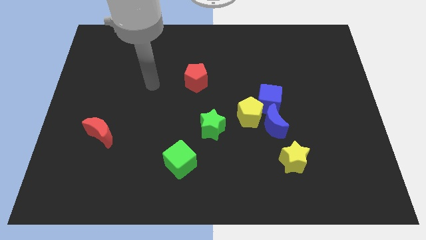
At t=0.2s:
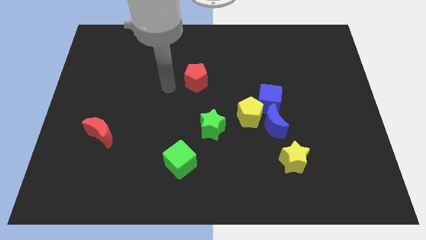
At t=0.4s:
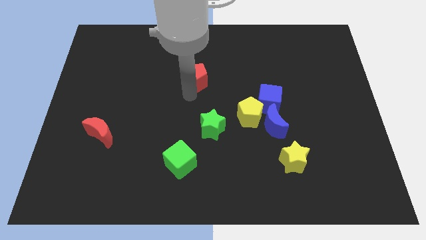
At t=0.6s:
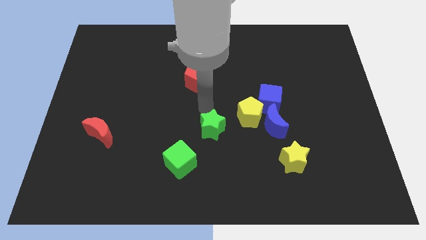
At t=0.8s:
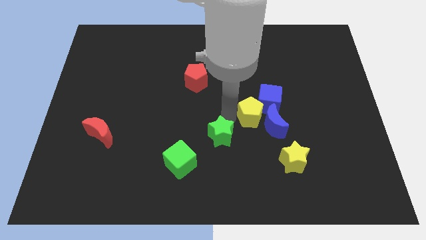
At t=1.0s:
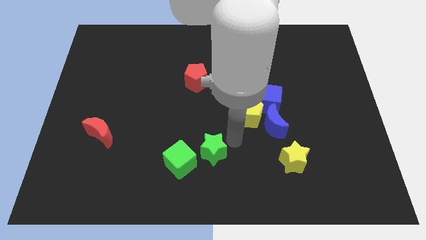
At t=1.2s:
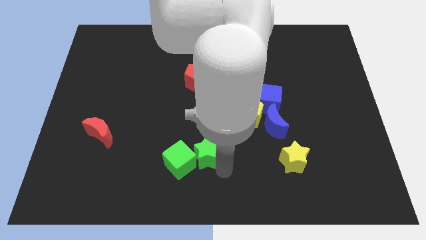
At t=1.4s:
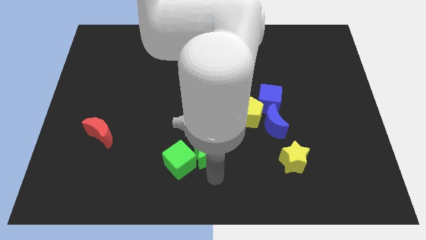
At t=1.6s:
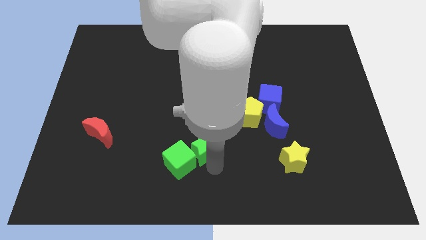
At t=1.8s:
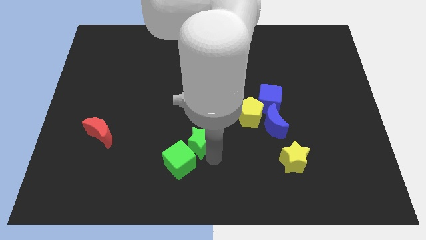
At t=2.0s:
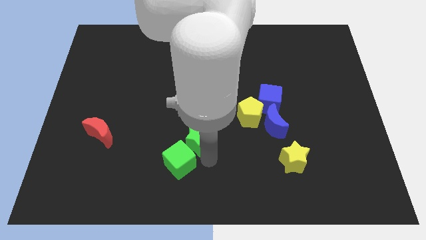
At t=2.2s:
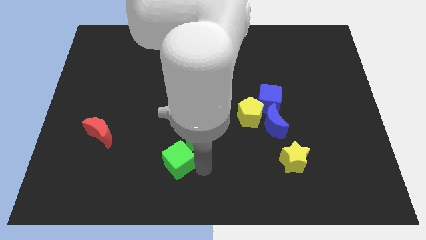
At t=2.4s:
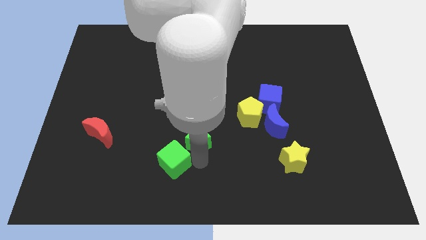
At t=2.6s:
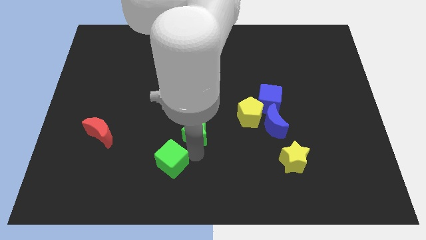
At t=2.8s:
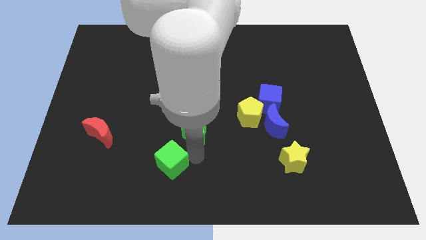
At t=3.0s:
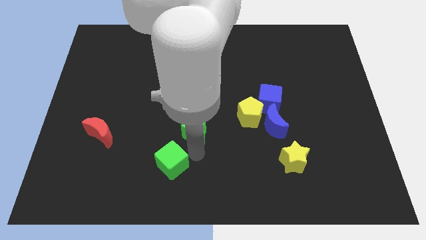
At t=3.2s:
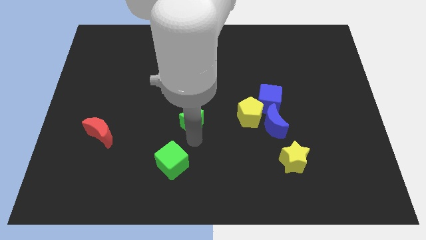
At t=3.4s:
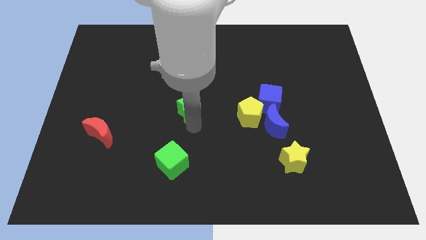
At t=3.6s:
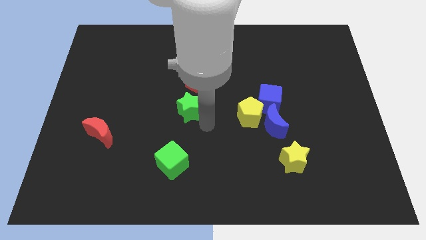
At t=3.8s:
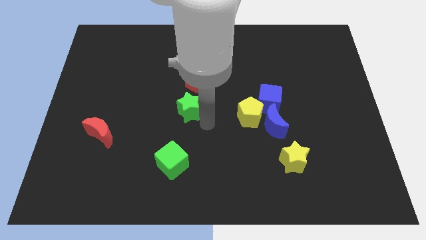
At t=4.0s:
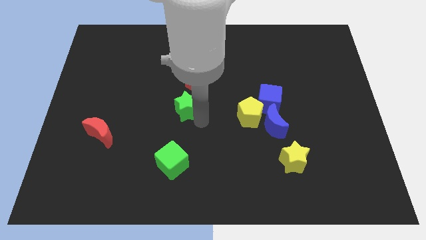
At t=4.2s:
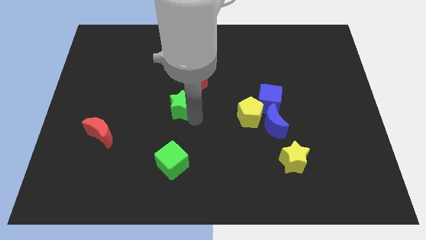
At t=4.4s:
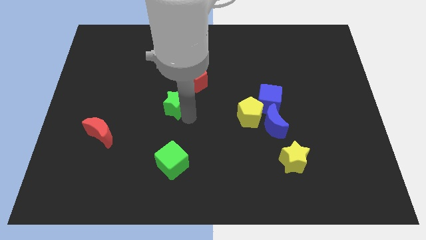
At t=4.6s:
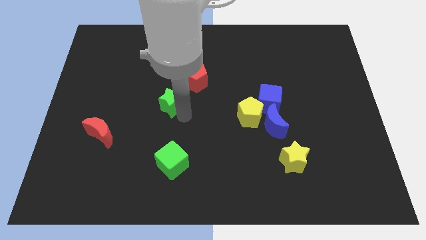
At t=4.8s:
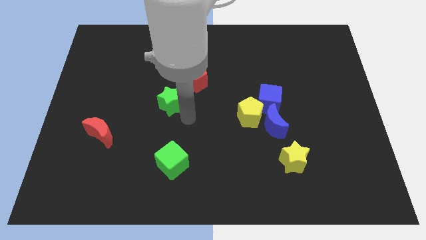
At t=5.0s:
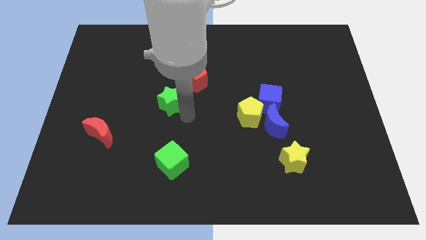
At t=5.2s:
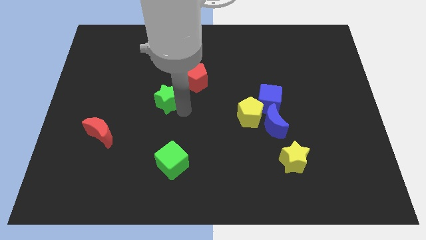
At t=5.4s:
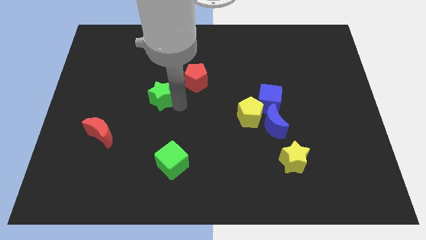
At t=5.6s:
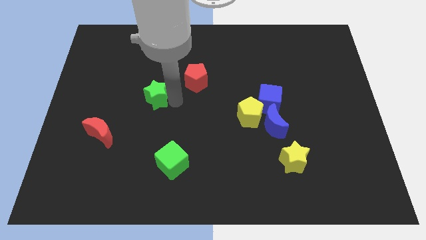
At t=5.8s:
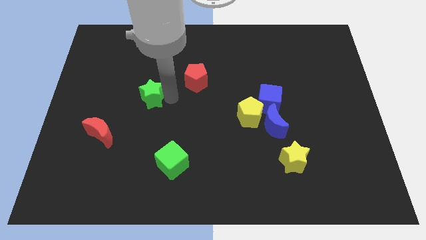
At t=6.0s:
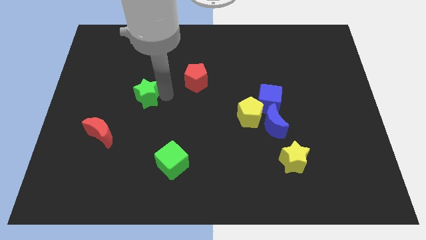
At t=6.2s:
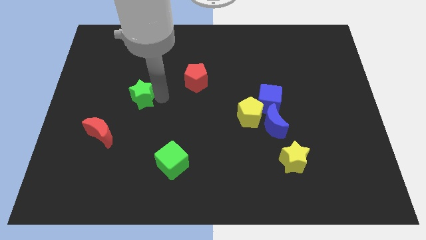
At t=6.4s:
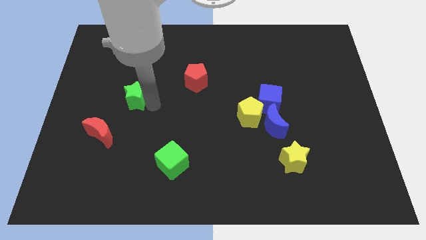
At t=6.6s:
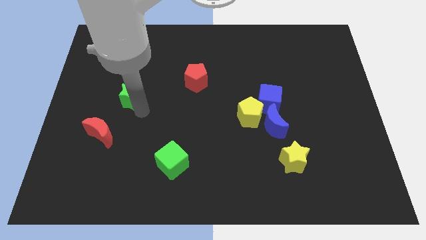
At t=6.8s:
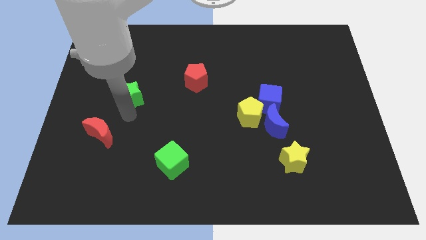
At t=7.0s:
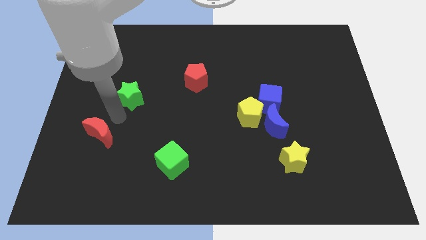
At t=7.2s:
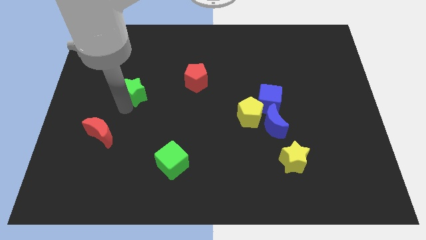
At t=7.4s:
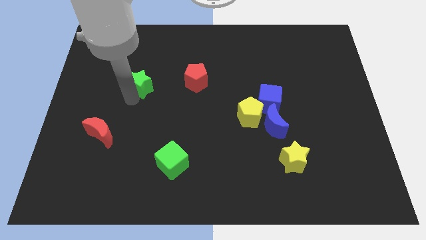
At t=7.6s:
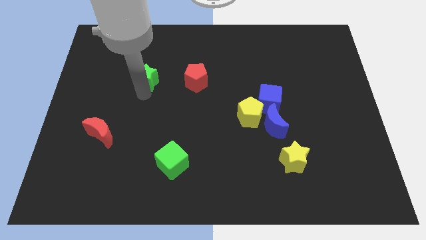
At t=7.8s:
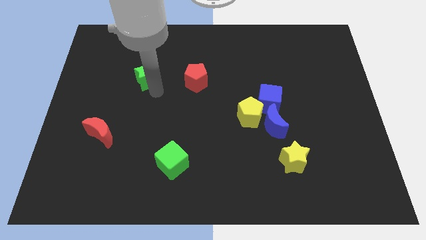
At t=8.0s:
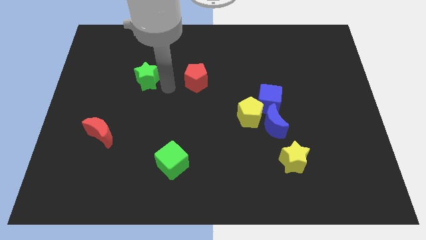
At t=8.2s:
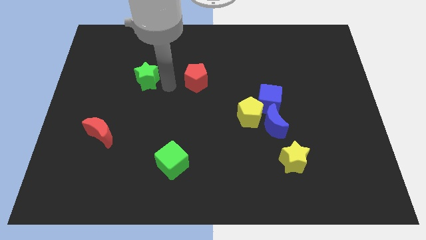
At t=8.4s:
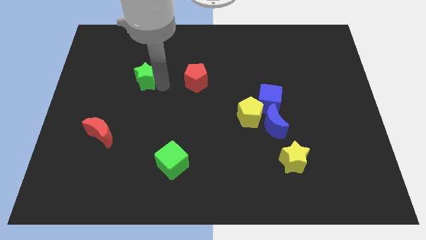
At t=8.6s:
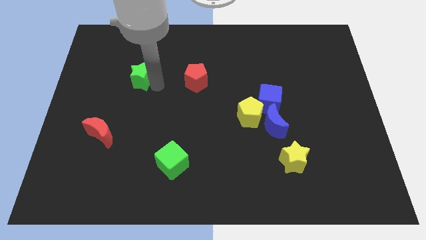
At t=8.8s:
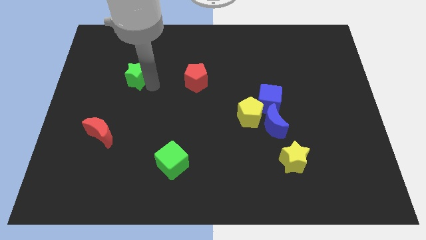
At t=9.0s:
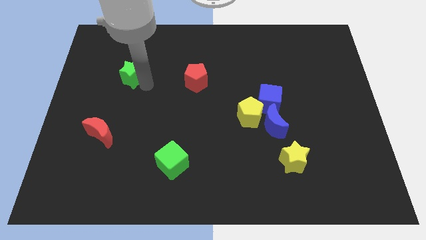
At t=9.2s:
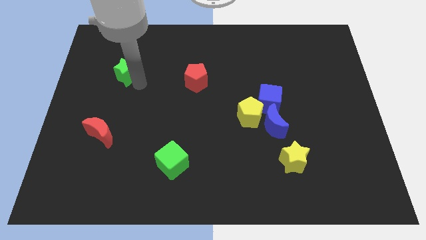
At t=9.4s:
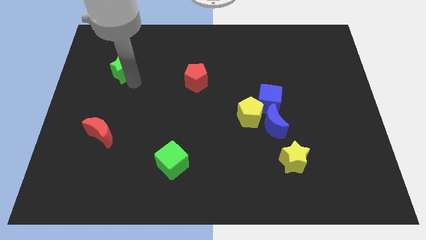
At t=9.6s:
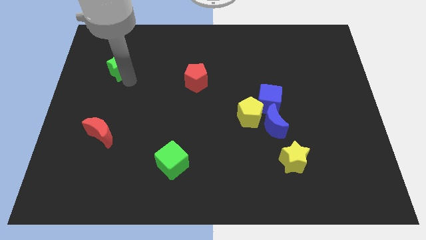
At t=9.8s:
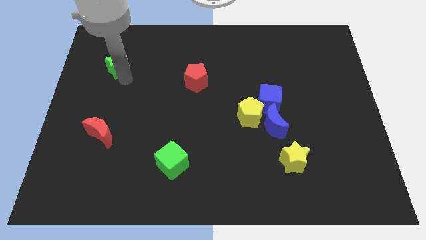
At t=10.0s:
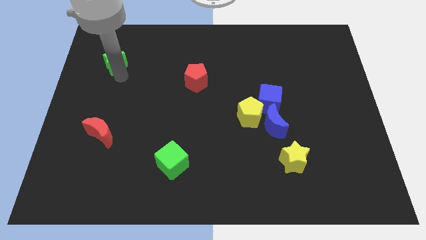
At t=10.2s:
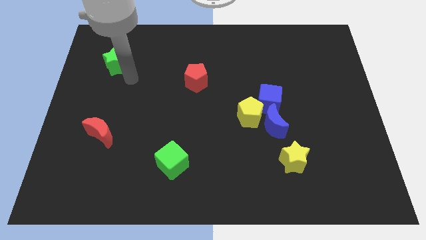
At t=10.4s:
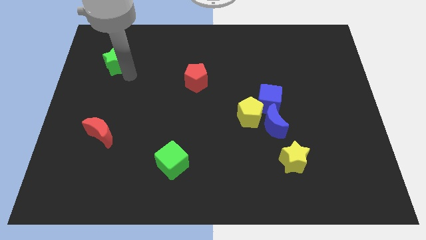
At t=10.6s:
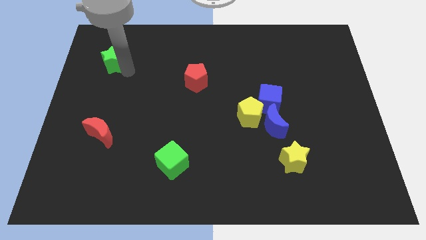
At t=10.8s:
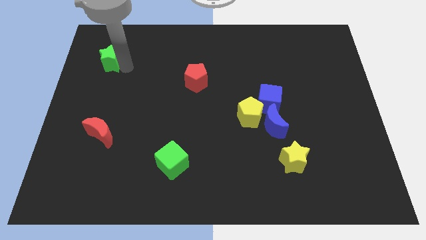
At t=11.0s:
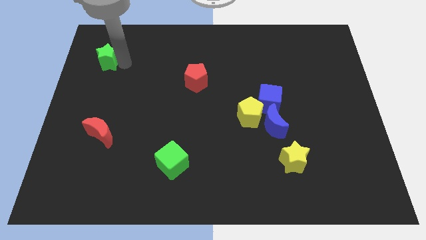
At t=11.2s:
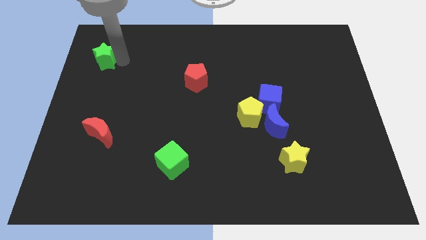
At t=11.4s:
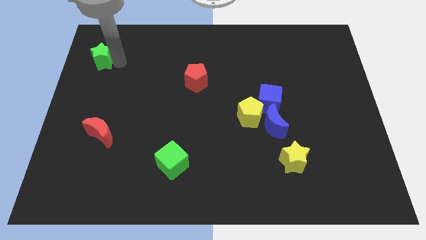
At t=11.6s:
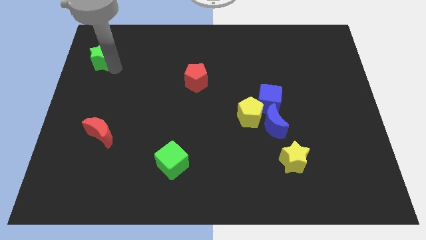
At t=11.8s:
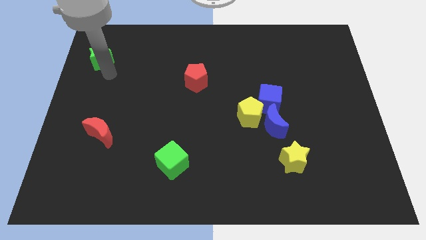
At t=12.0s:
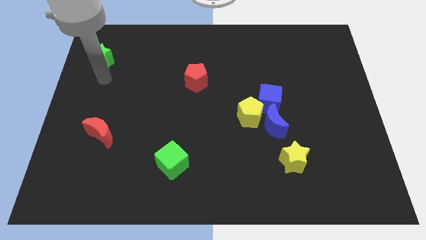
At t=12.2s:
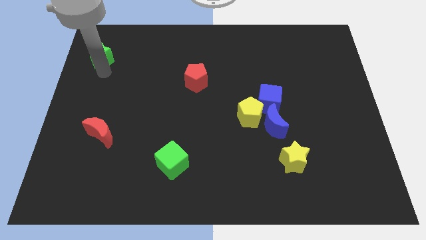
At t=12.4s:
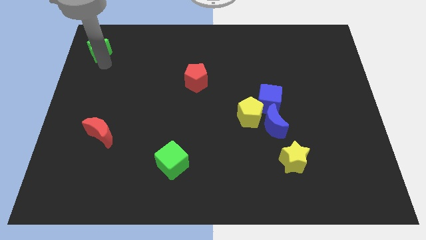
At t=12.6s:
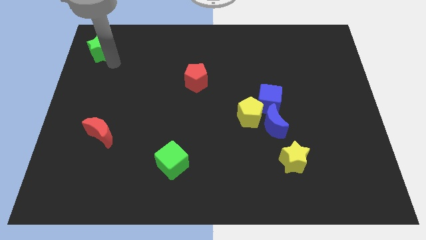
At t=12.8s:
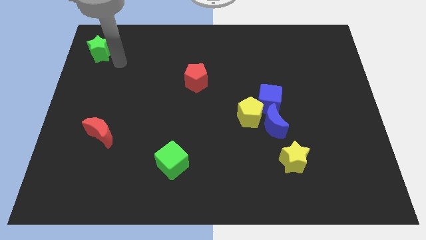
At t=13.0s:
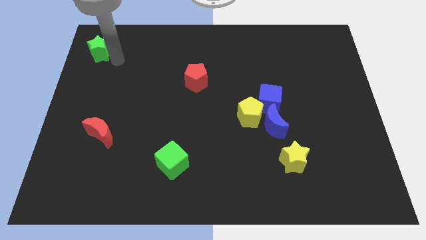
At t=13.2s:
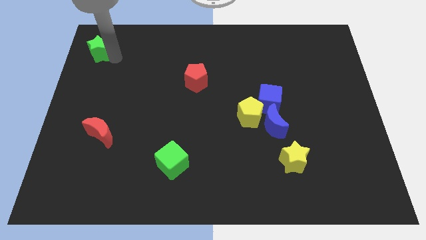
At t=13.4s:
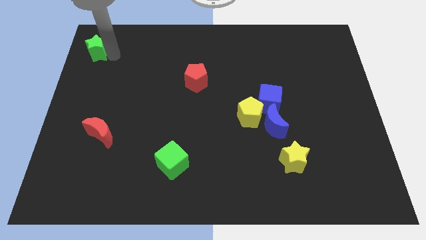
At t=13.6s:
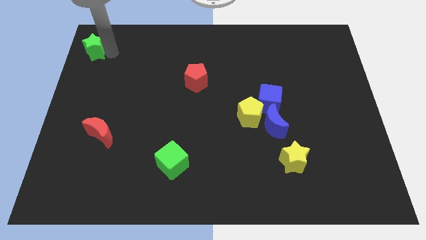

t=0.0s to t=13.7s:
put the green star to the top left corner
